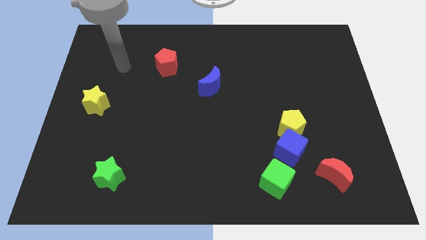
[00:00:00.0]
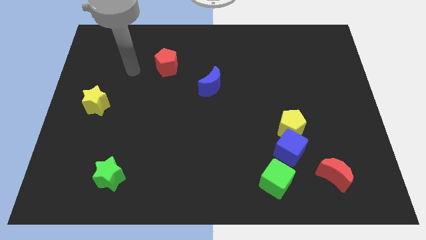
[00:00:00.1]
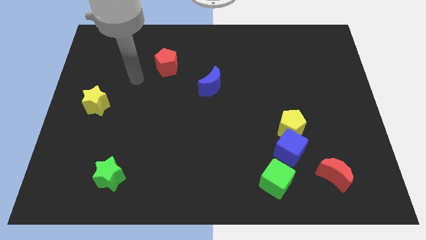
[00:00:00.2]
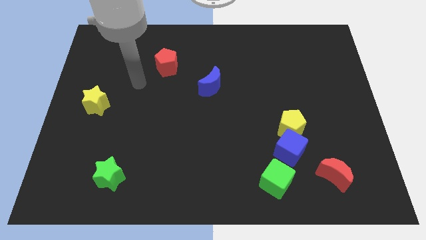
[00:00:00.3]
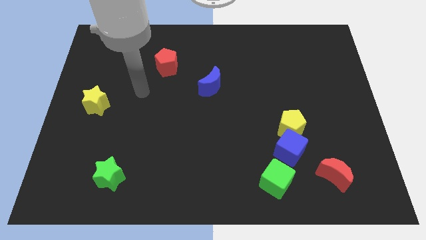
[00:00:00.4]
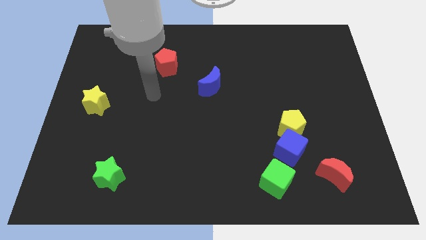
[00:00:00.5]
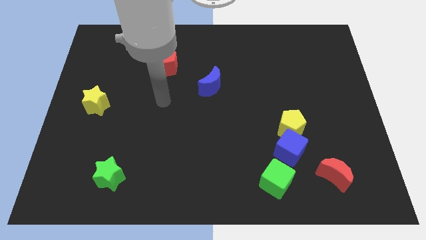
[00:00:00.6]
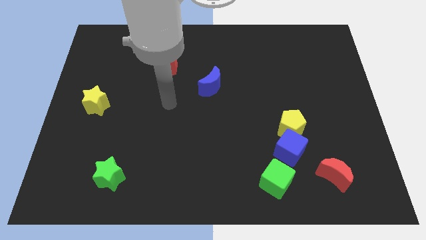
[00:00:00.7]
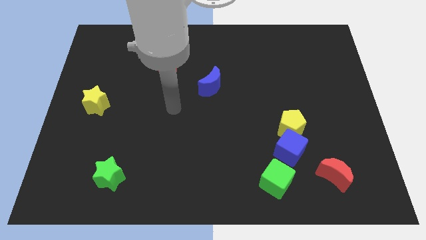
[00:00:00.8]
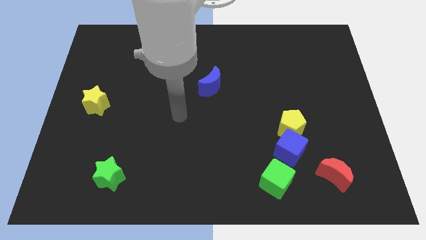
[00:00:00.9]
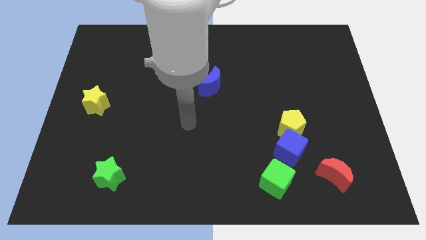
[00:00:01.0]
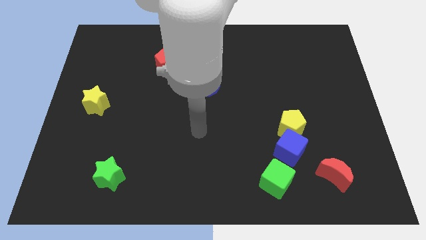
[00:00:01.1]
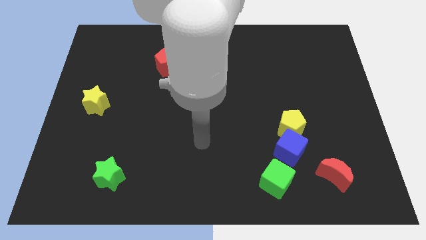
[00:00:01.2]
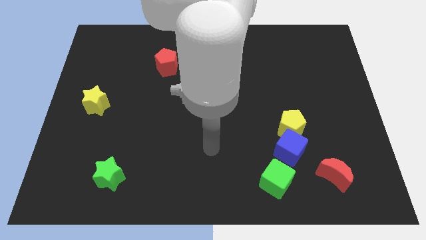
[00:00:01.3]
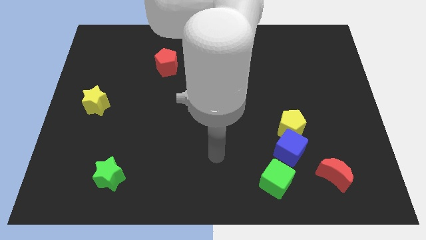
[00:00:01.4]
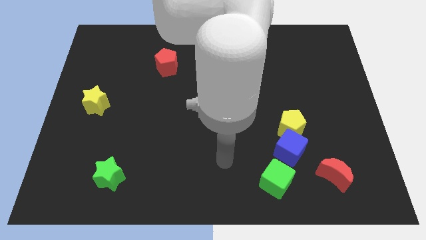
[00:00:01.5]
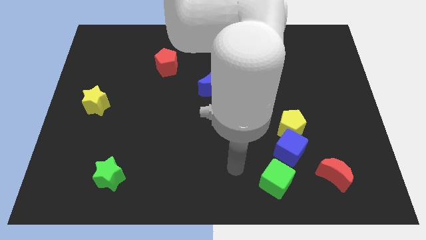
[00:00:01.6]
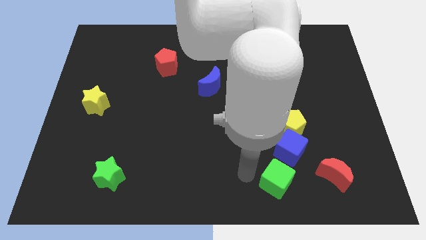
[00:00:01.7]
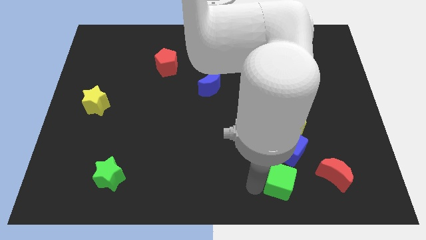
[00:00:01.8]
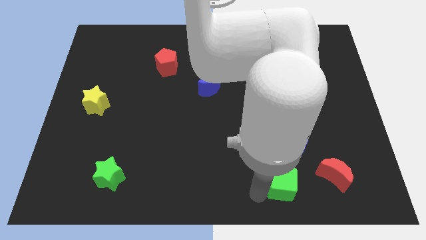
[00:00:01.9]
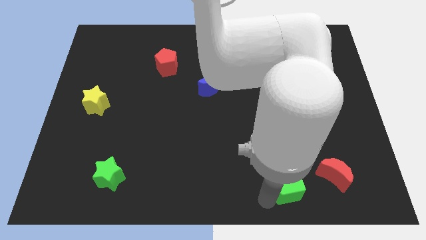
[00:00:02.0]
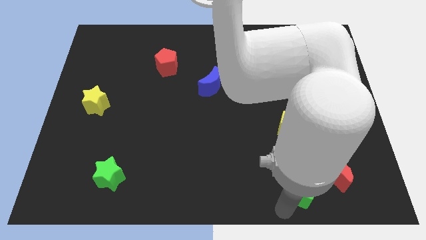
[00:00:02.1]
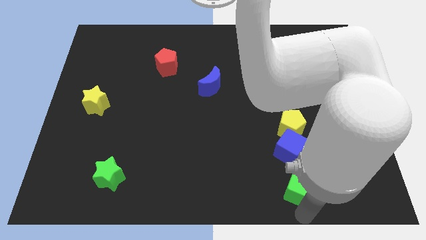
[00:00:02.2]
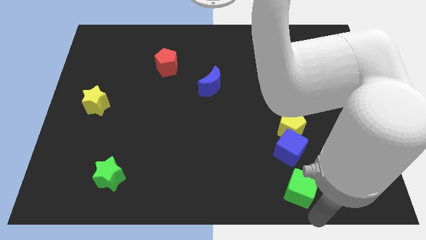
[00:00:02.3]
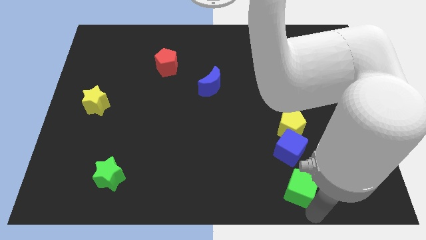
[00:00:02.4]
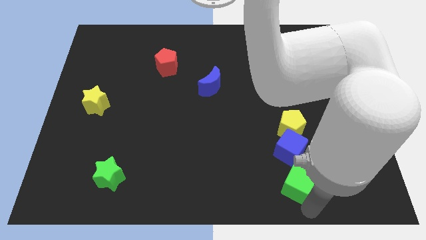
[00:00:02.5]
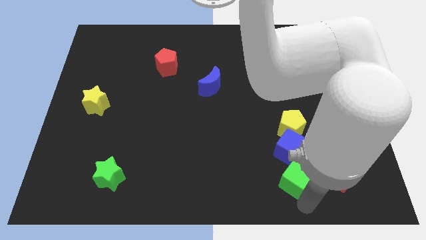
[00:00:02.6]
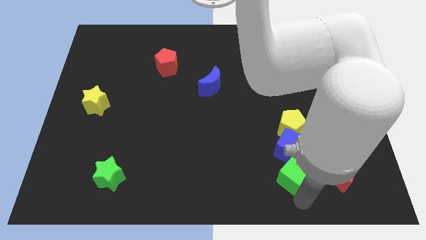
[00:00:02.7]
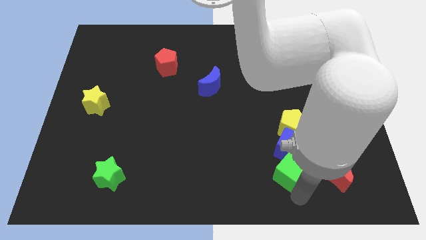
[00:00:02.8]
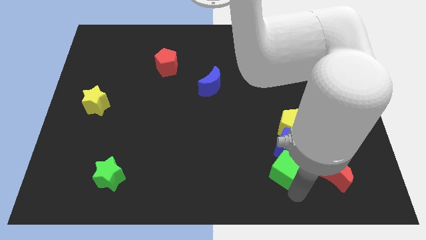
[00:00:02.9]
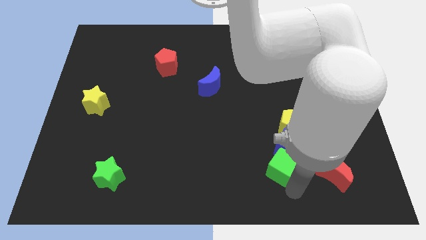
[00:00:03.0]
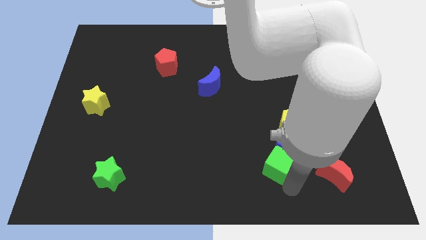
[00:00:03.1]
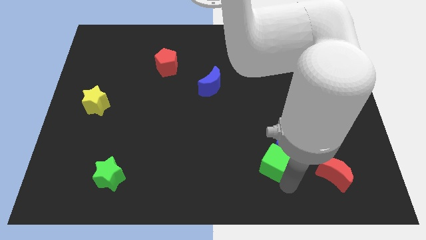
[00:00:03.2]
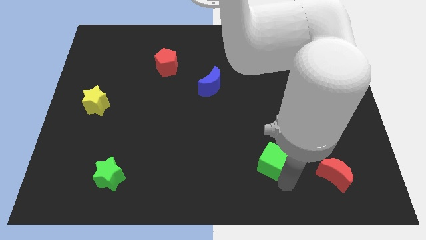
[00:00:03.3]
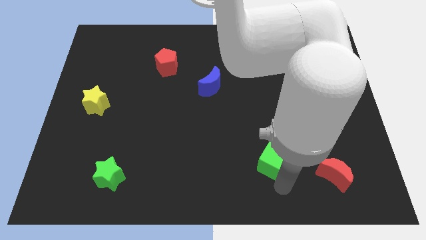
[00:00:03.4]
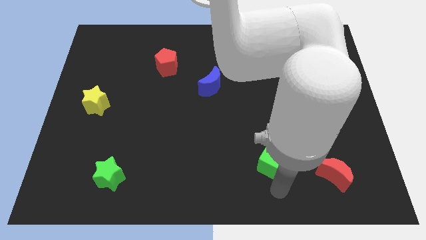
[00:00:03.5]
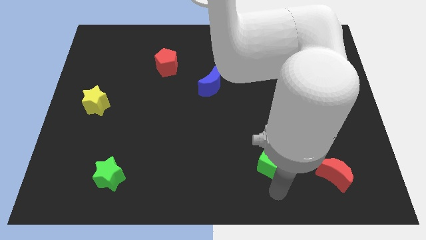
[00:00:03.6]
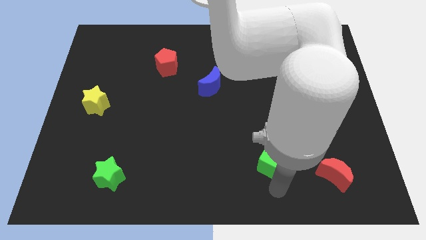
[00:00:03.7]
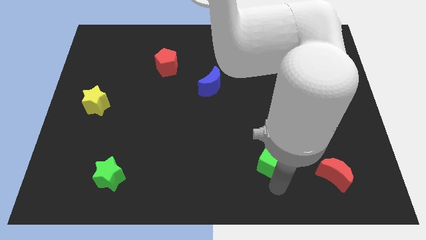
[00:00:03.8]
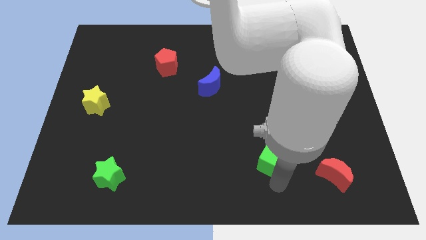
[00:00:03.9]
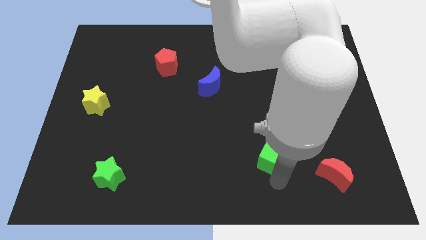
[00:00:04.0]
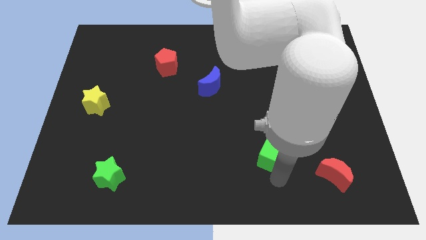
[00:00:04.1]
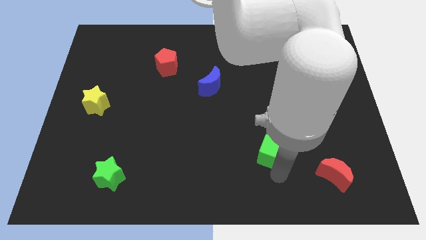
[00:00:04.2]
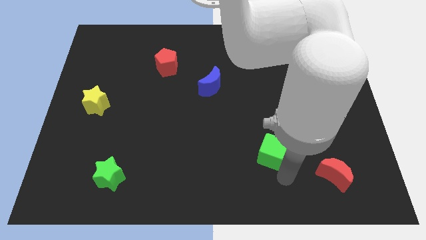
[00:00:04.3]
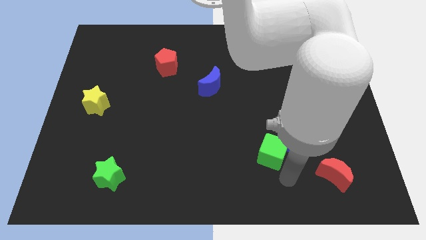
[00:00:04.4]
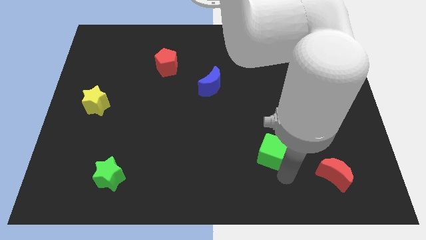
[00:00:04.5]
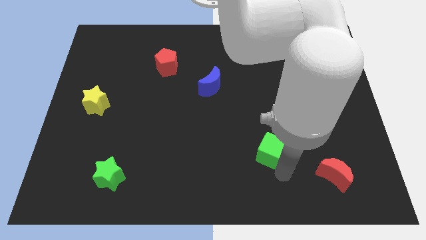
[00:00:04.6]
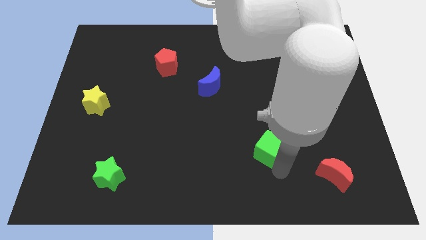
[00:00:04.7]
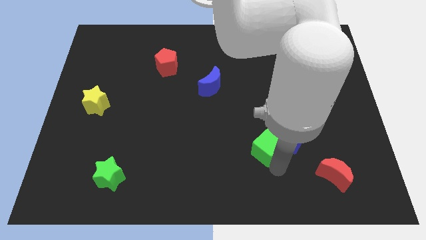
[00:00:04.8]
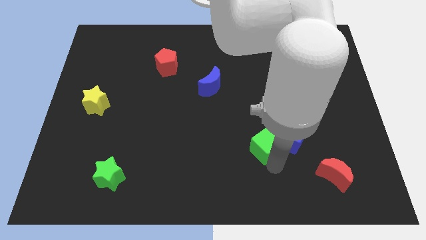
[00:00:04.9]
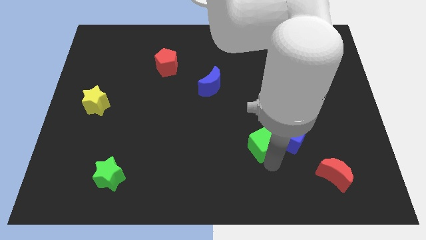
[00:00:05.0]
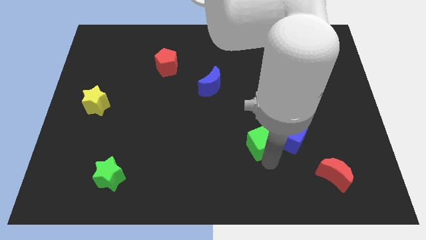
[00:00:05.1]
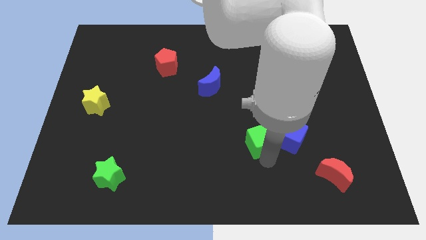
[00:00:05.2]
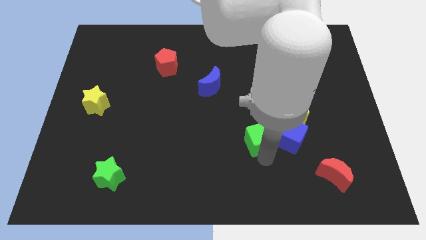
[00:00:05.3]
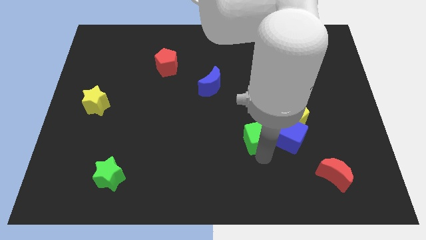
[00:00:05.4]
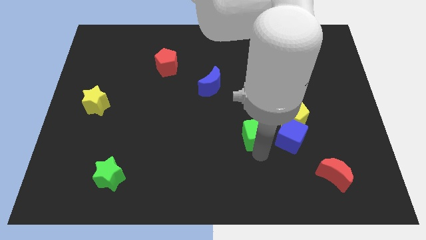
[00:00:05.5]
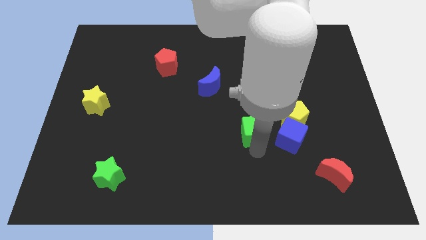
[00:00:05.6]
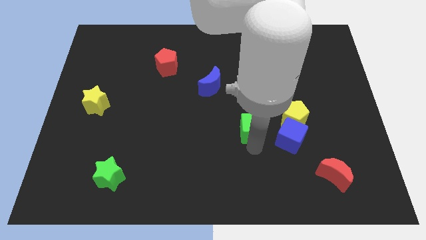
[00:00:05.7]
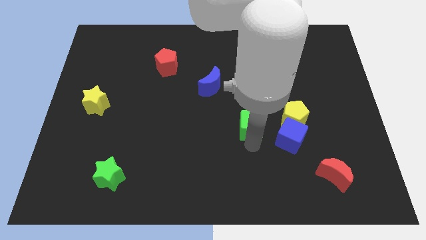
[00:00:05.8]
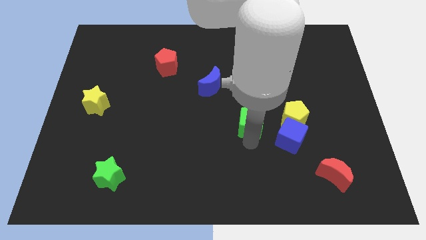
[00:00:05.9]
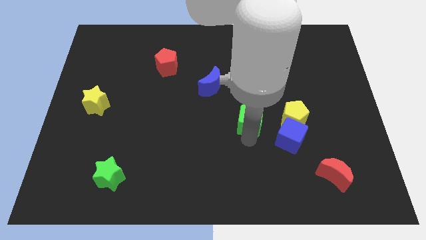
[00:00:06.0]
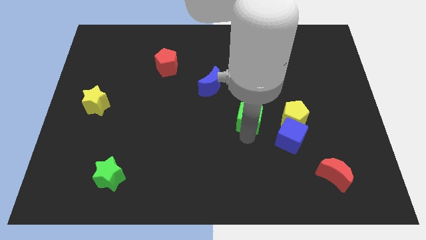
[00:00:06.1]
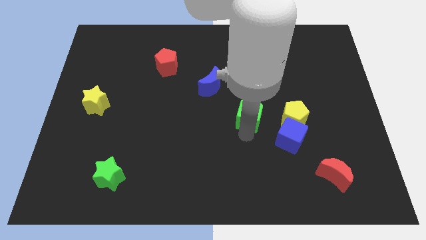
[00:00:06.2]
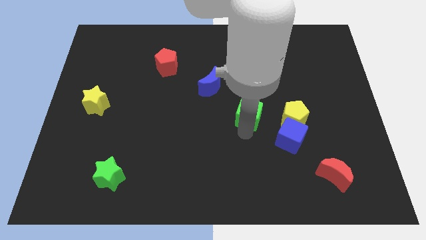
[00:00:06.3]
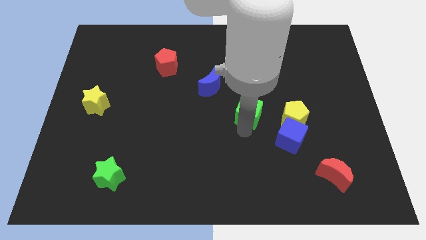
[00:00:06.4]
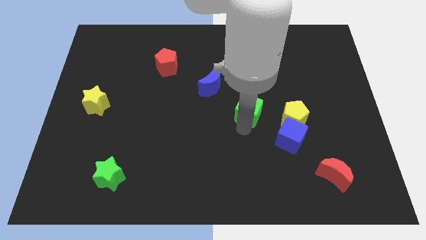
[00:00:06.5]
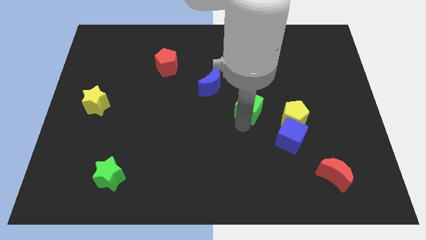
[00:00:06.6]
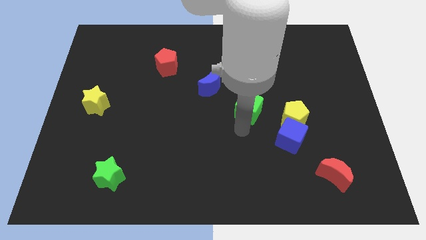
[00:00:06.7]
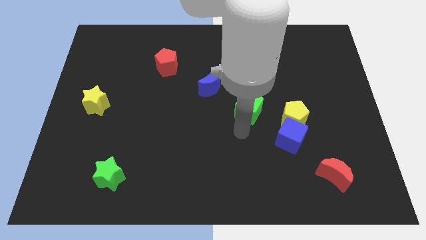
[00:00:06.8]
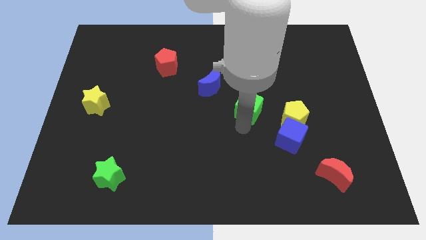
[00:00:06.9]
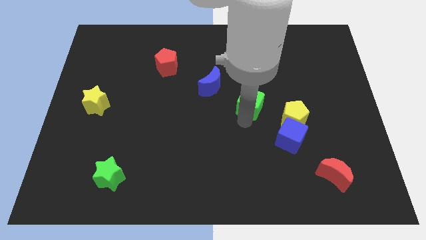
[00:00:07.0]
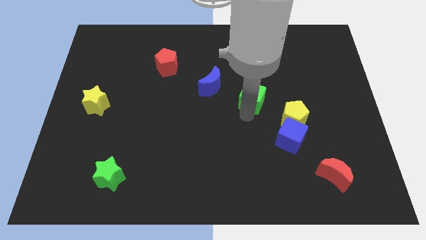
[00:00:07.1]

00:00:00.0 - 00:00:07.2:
move the green cube upwards

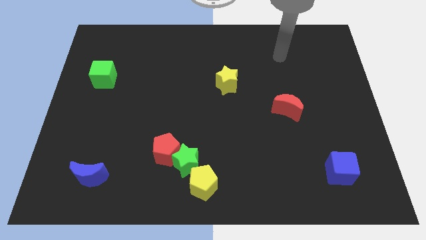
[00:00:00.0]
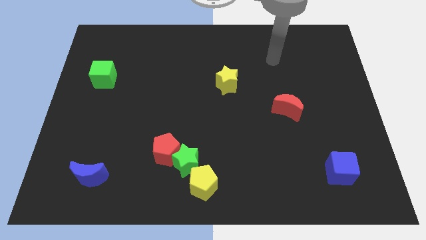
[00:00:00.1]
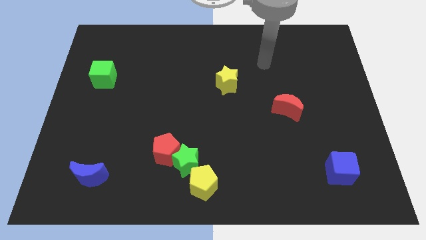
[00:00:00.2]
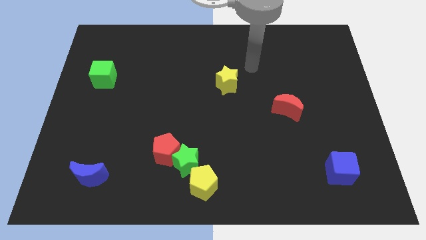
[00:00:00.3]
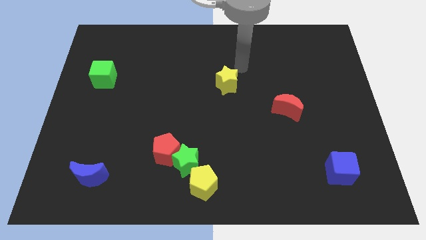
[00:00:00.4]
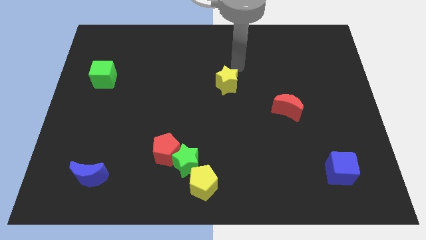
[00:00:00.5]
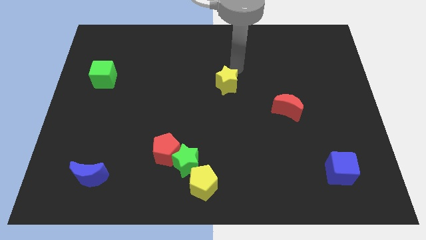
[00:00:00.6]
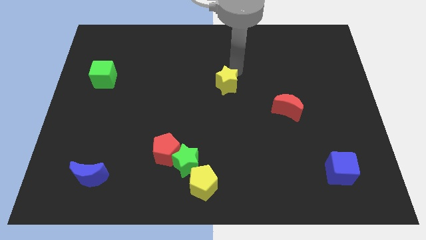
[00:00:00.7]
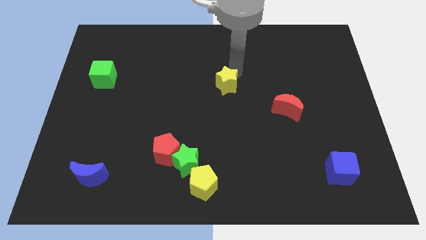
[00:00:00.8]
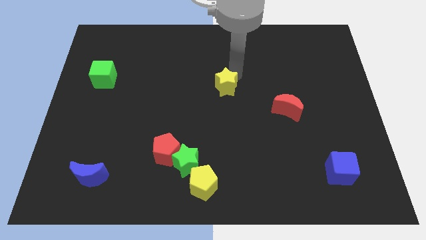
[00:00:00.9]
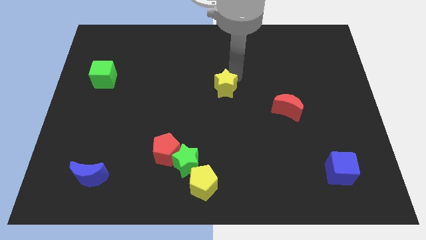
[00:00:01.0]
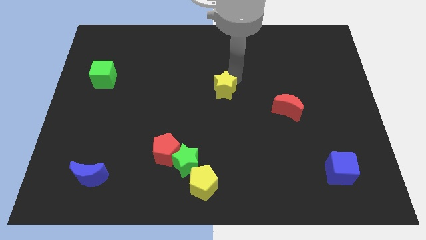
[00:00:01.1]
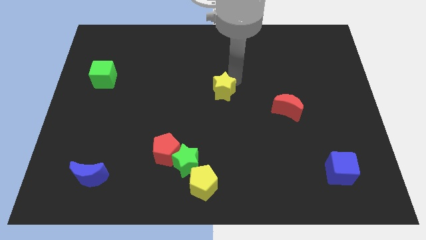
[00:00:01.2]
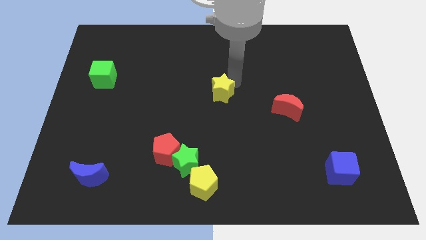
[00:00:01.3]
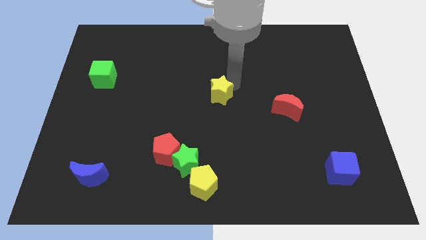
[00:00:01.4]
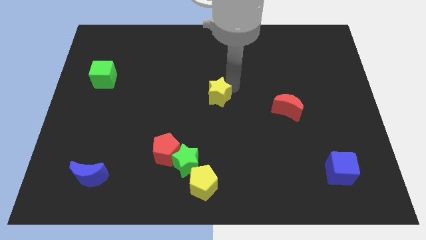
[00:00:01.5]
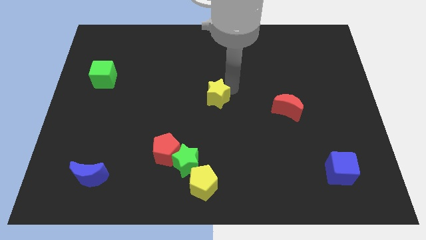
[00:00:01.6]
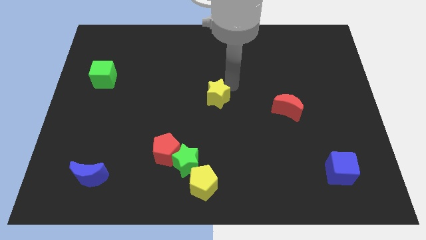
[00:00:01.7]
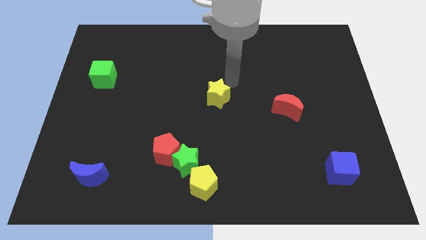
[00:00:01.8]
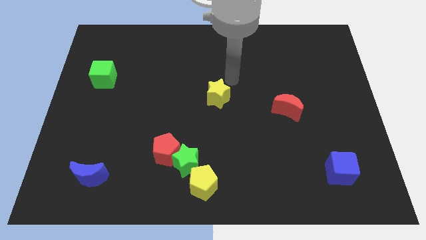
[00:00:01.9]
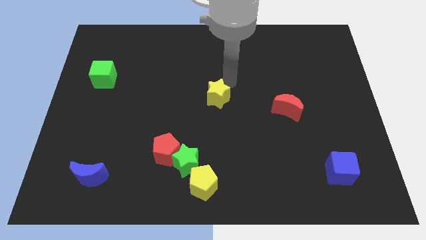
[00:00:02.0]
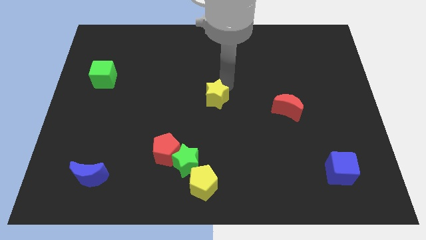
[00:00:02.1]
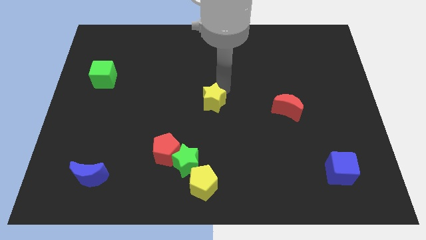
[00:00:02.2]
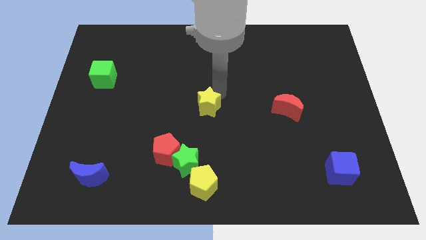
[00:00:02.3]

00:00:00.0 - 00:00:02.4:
slide the yellow star down and to the left a bit
